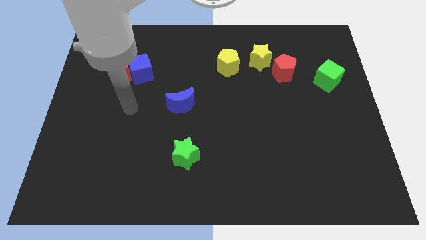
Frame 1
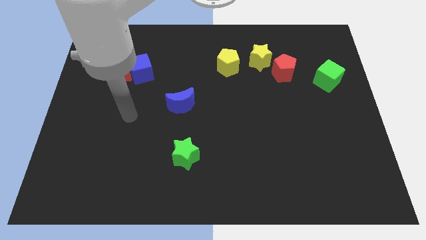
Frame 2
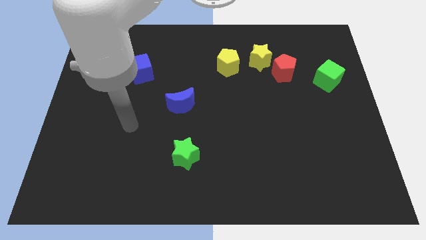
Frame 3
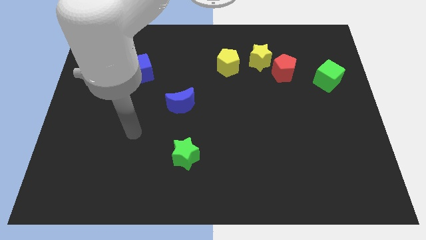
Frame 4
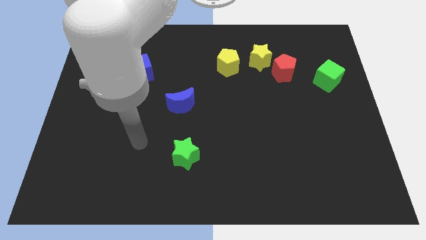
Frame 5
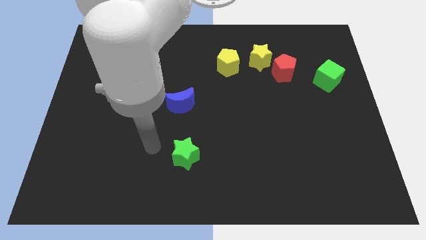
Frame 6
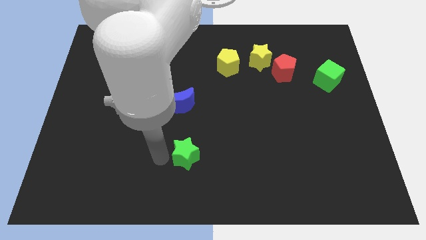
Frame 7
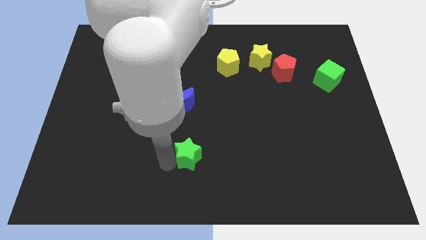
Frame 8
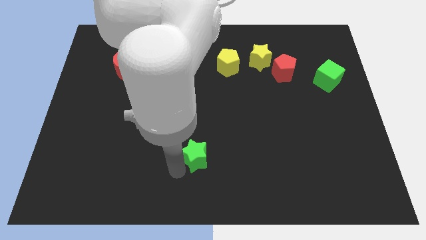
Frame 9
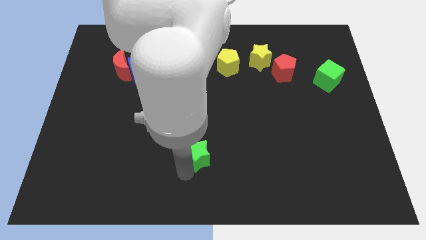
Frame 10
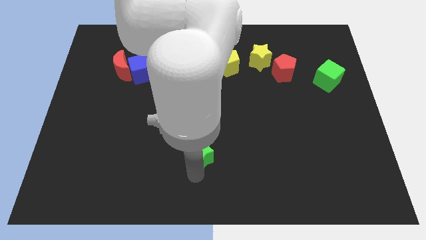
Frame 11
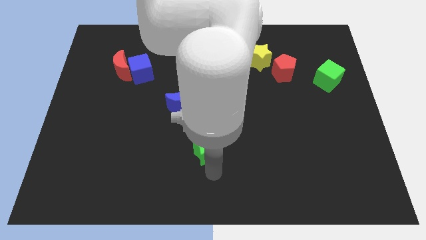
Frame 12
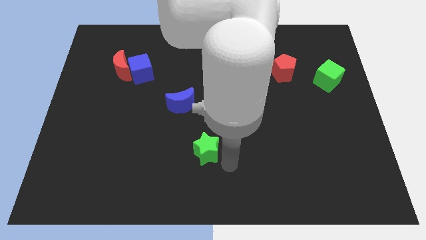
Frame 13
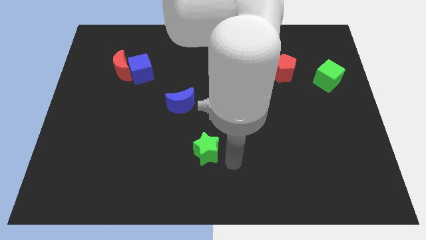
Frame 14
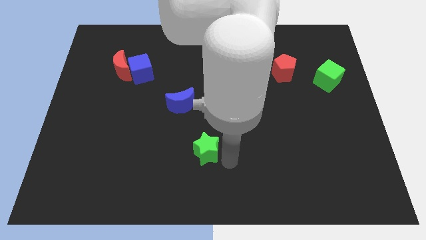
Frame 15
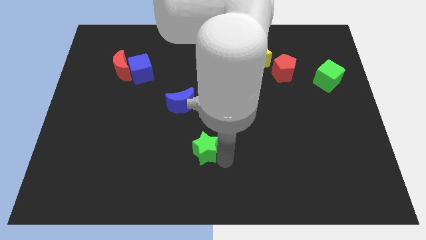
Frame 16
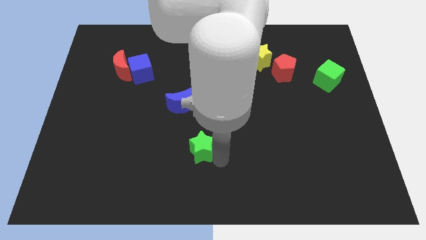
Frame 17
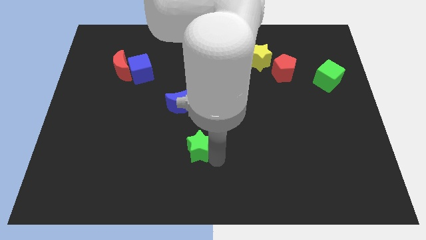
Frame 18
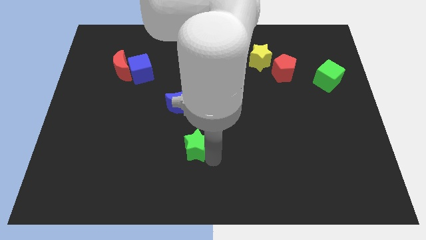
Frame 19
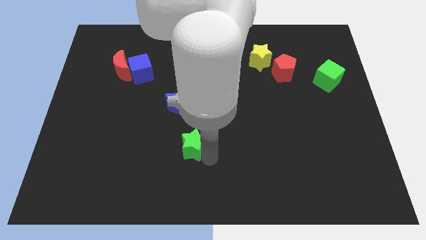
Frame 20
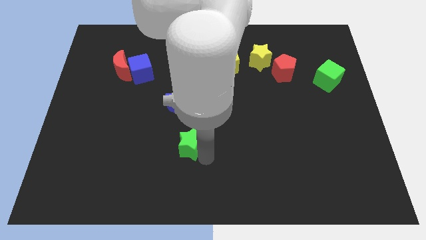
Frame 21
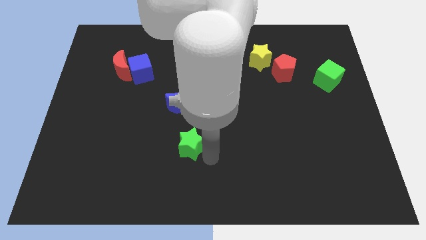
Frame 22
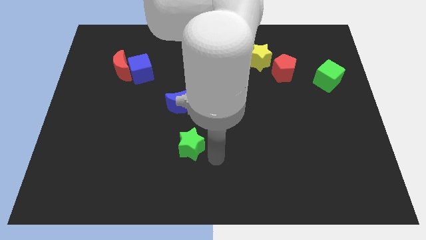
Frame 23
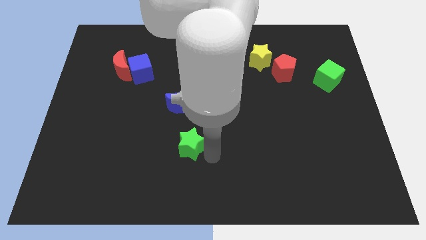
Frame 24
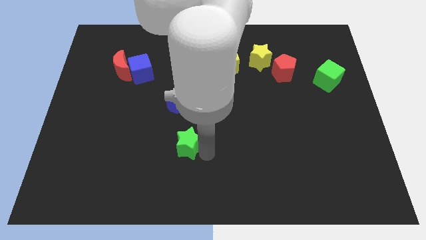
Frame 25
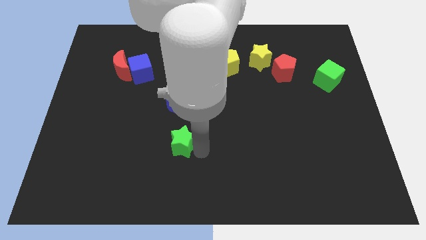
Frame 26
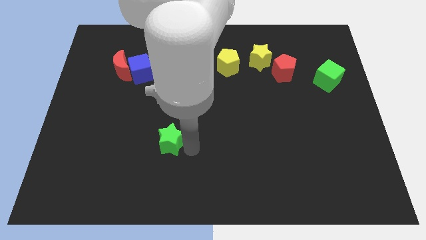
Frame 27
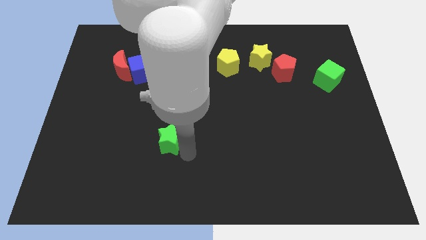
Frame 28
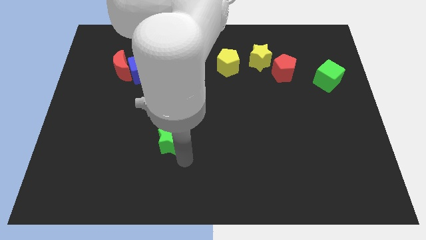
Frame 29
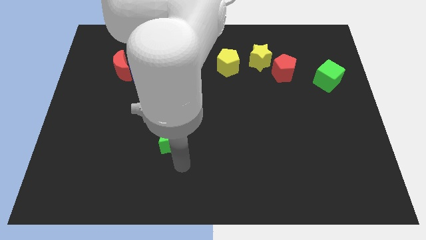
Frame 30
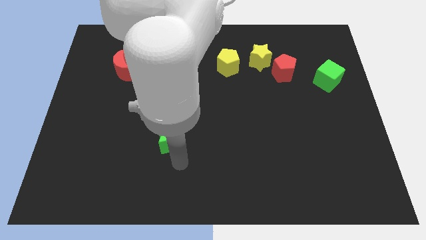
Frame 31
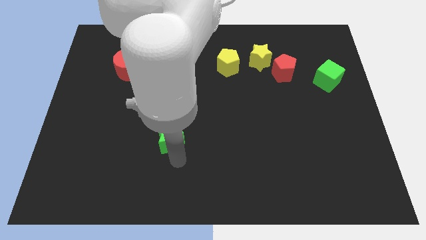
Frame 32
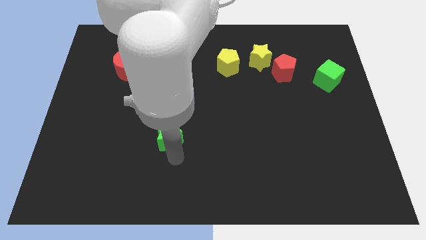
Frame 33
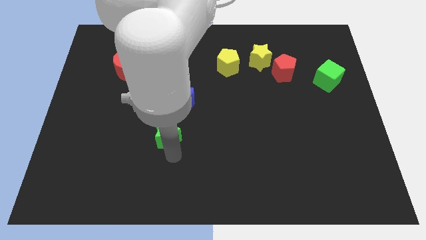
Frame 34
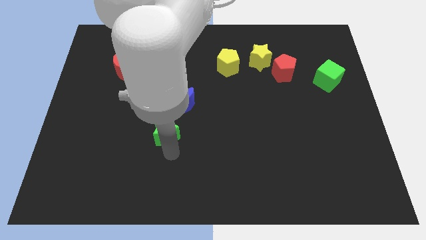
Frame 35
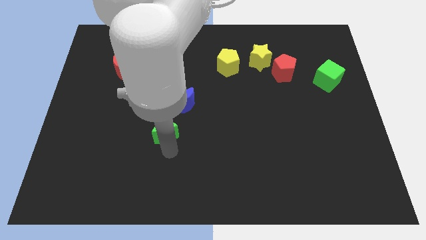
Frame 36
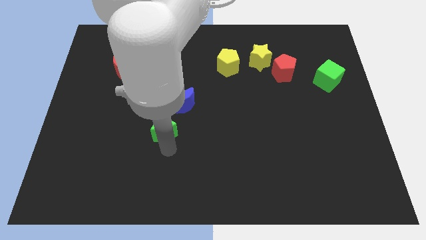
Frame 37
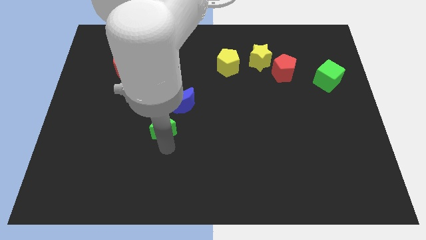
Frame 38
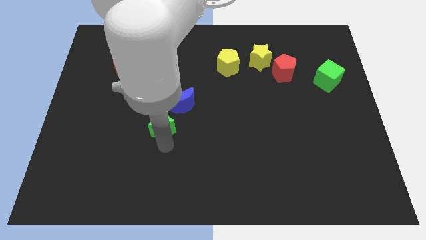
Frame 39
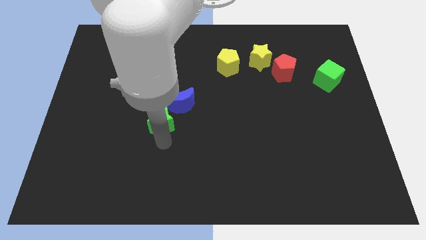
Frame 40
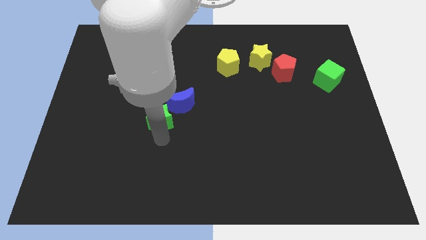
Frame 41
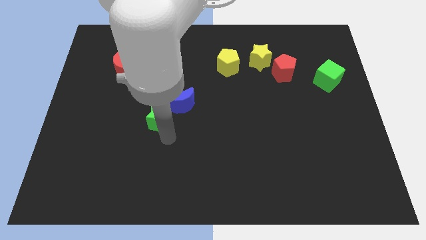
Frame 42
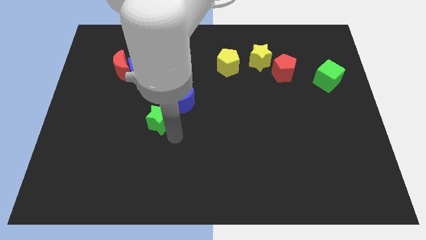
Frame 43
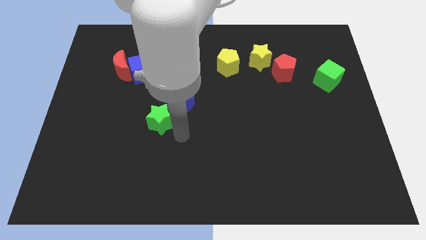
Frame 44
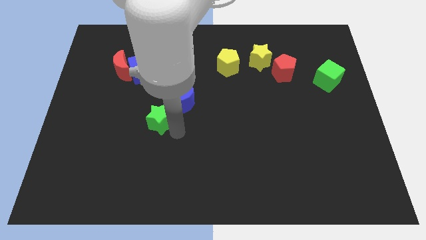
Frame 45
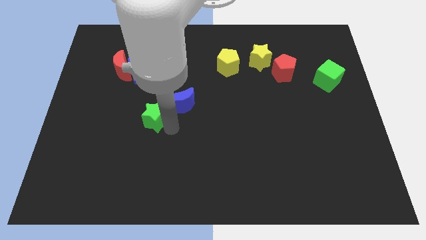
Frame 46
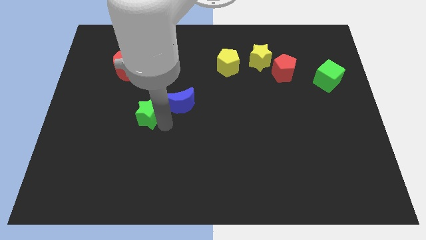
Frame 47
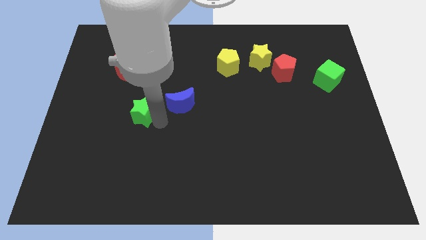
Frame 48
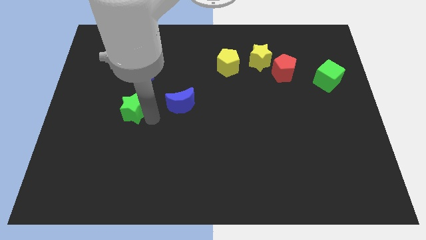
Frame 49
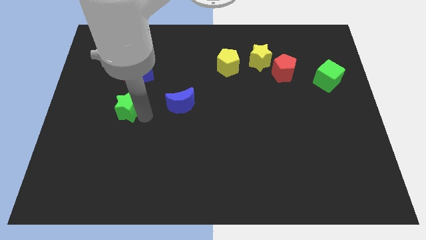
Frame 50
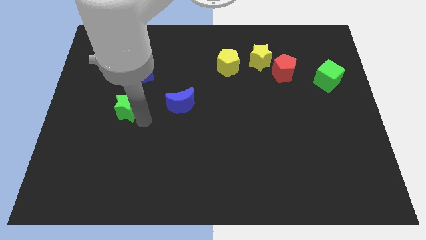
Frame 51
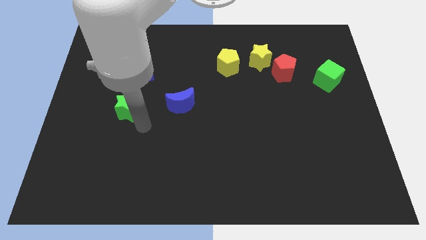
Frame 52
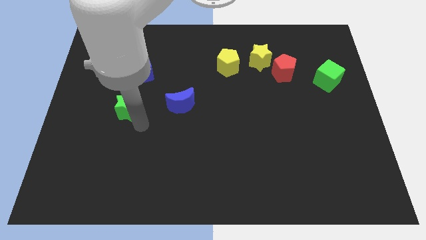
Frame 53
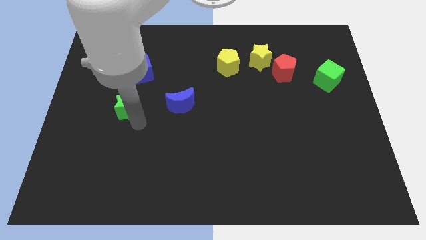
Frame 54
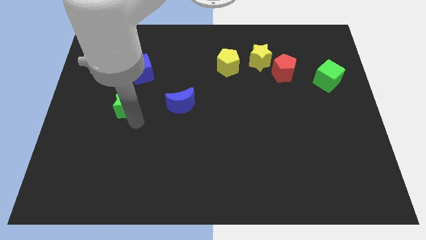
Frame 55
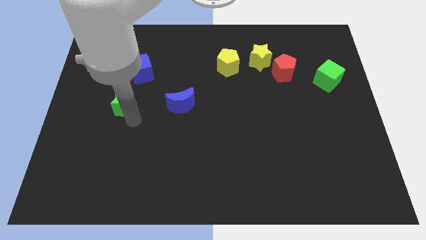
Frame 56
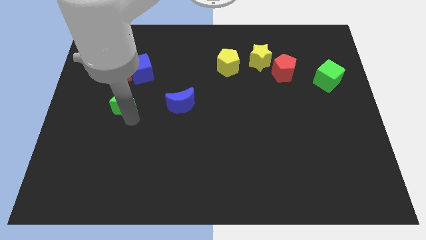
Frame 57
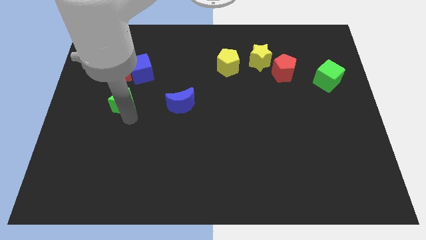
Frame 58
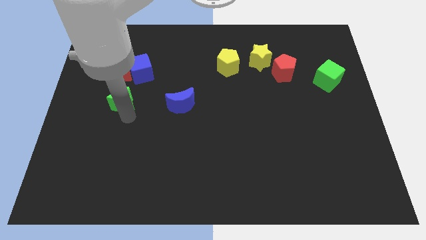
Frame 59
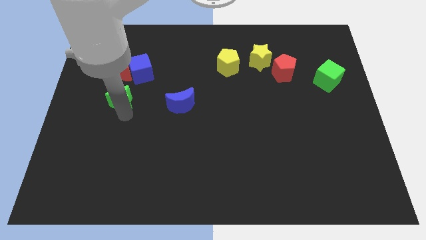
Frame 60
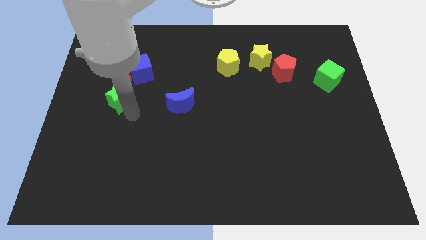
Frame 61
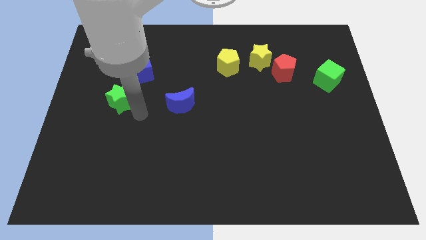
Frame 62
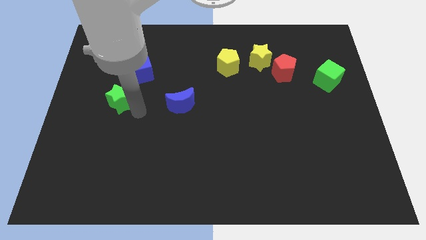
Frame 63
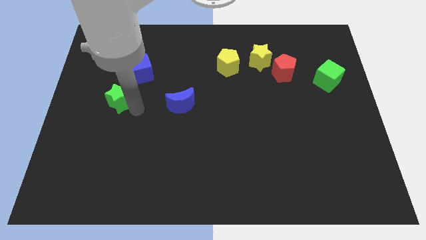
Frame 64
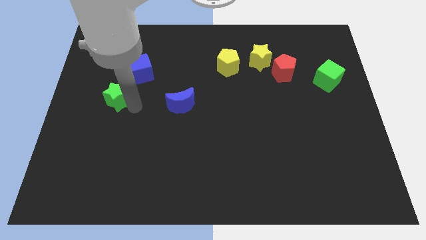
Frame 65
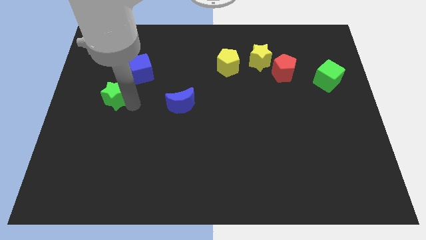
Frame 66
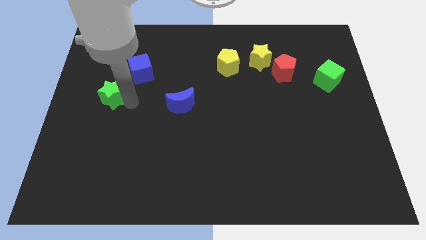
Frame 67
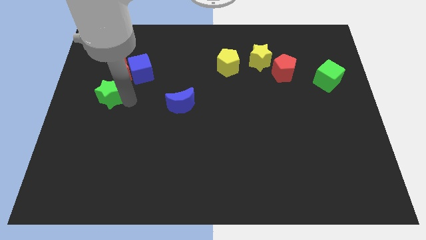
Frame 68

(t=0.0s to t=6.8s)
move the green star to the bottom left side of the red moon

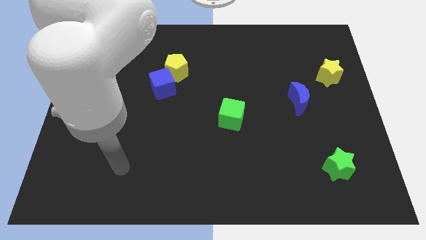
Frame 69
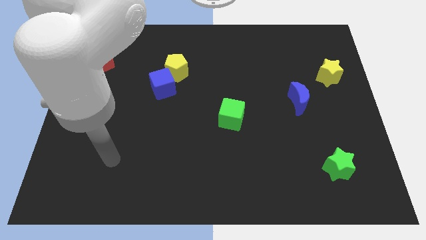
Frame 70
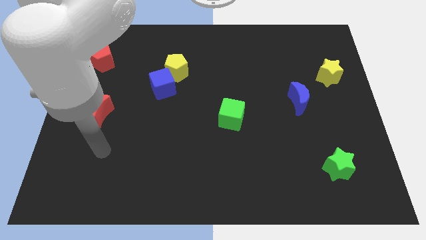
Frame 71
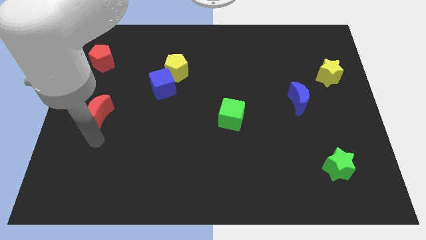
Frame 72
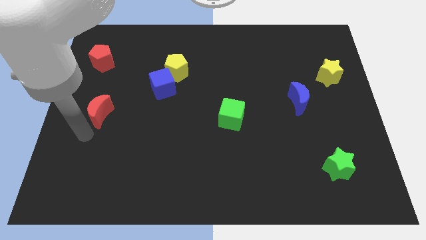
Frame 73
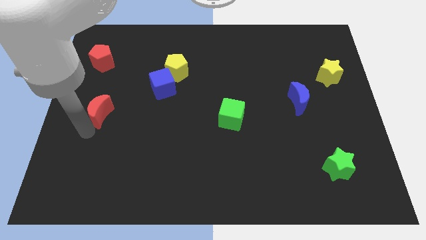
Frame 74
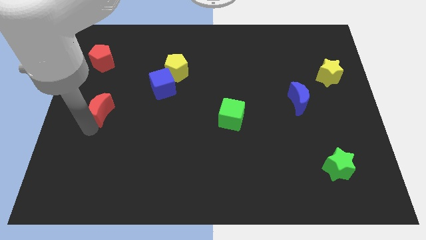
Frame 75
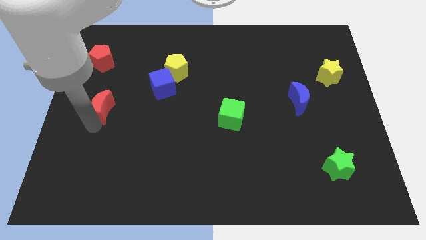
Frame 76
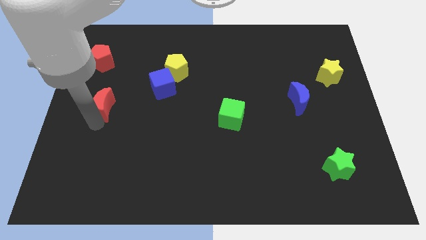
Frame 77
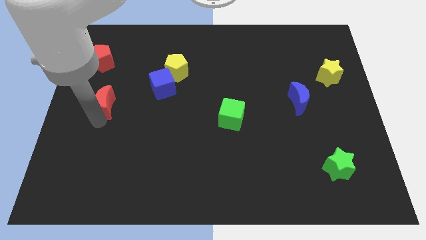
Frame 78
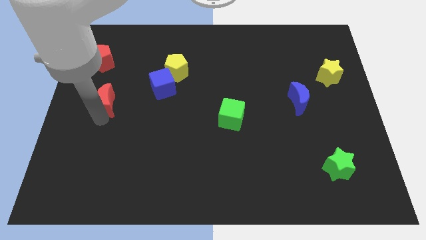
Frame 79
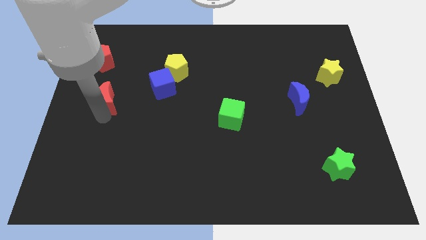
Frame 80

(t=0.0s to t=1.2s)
move the red moon to the left of the blue cube
